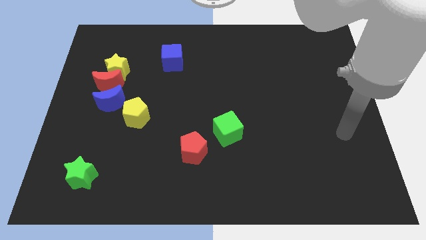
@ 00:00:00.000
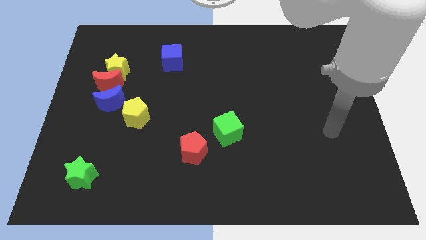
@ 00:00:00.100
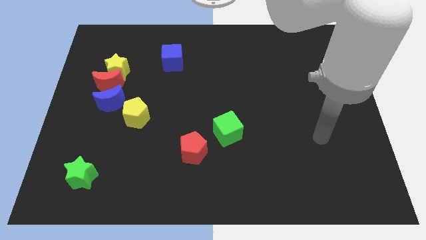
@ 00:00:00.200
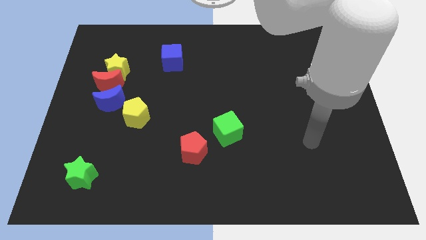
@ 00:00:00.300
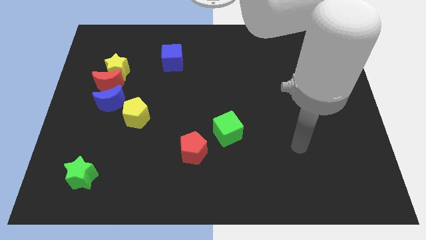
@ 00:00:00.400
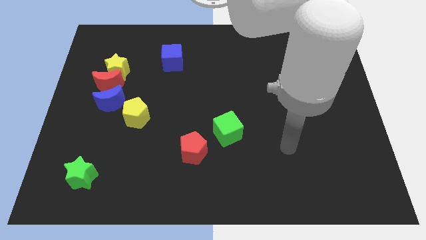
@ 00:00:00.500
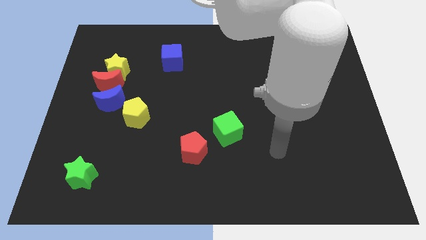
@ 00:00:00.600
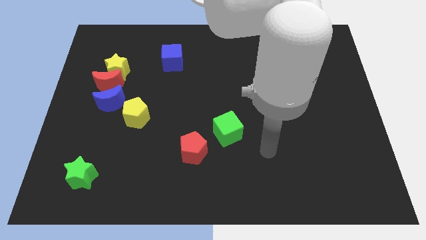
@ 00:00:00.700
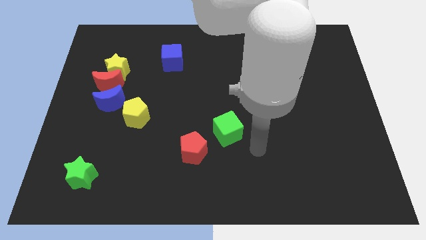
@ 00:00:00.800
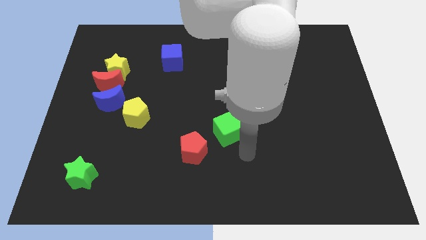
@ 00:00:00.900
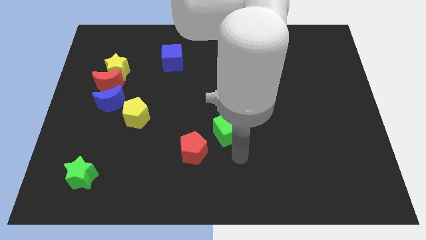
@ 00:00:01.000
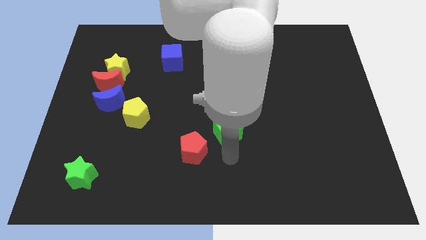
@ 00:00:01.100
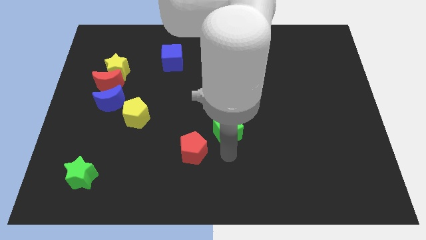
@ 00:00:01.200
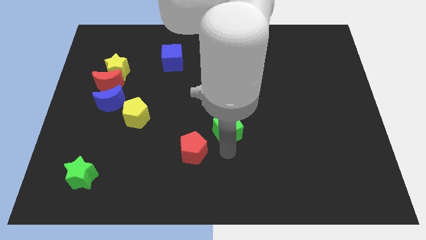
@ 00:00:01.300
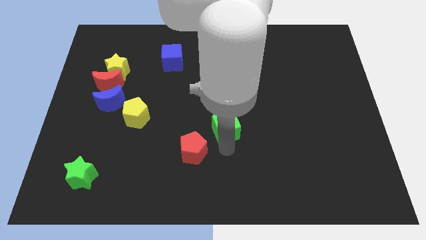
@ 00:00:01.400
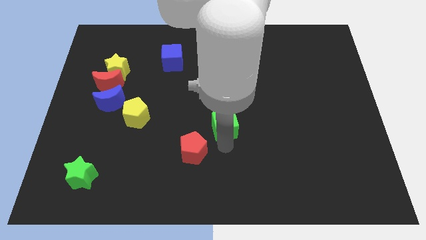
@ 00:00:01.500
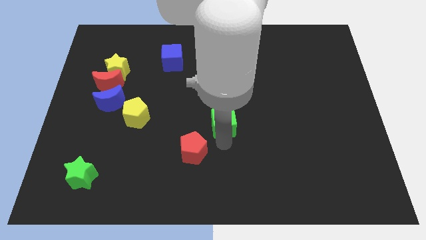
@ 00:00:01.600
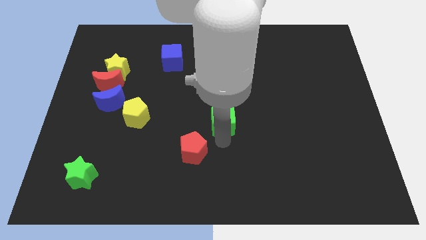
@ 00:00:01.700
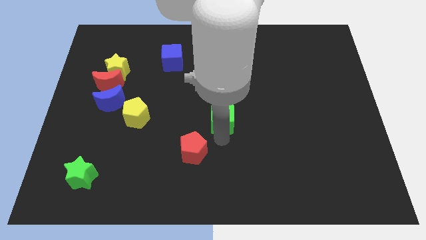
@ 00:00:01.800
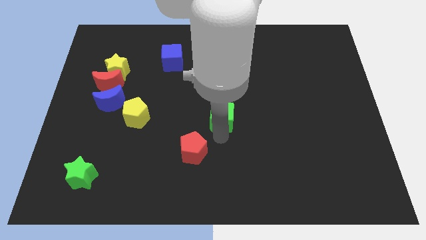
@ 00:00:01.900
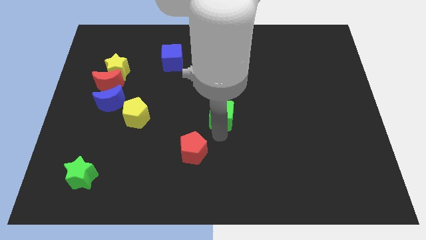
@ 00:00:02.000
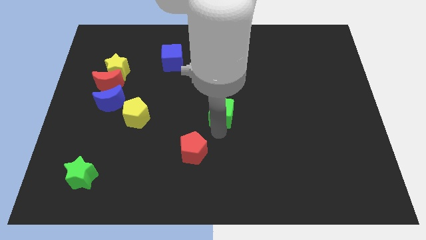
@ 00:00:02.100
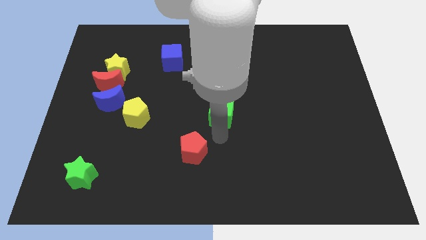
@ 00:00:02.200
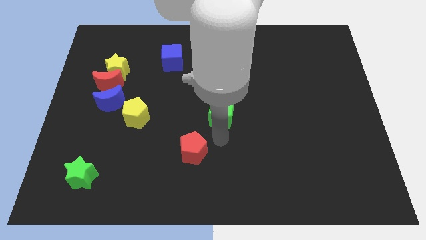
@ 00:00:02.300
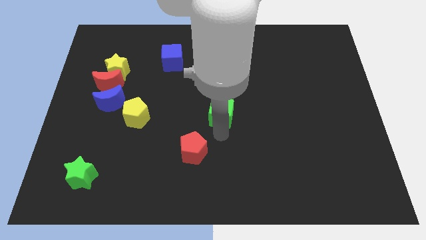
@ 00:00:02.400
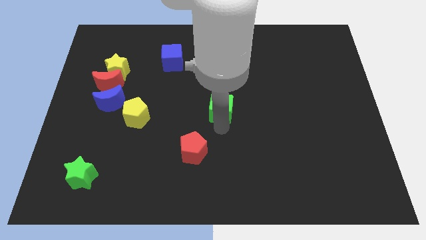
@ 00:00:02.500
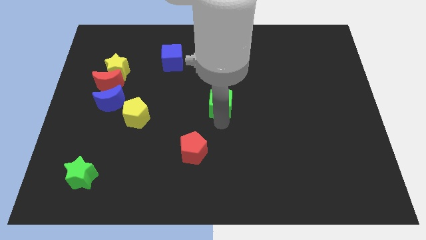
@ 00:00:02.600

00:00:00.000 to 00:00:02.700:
slide the green cube a little bit up

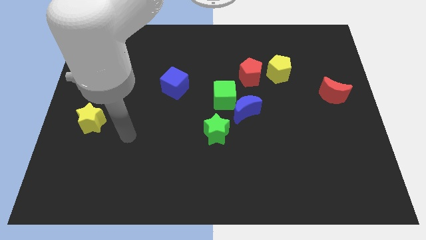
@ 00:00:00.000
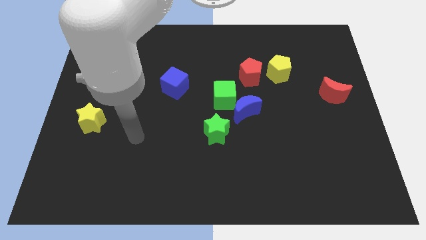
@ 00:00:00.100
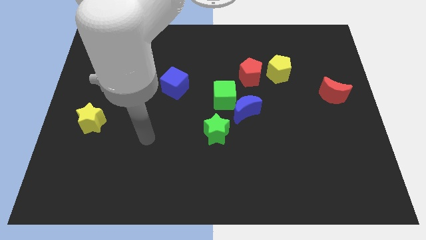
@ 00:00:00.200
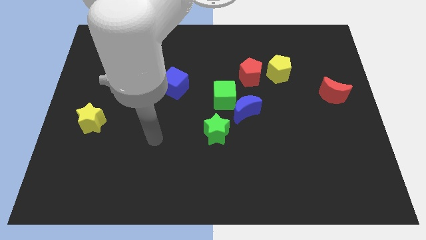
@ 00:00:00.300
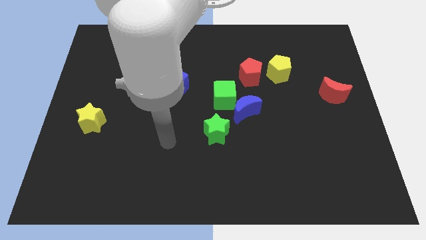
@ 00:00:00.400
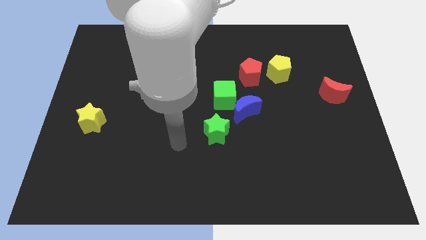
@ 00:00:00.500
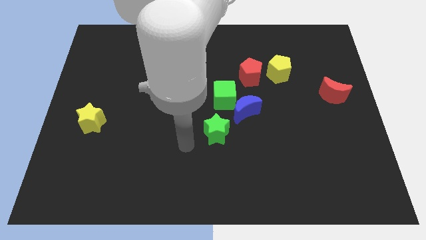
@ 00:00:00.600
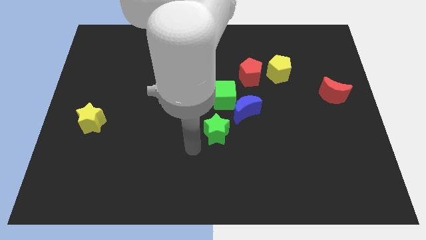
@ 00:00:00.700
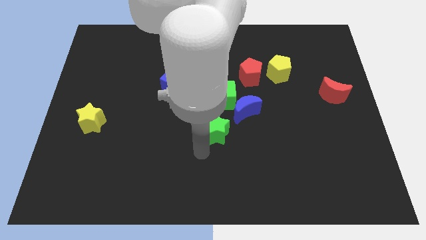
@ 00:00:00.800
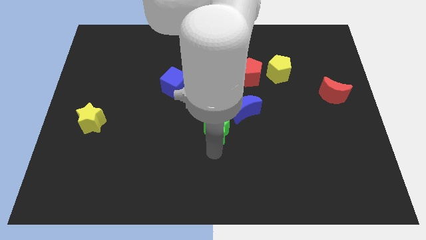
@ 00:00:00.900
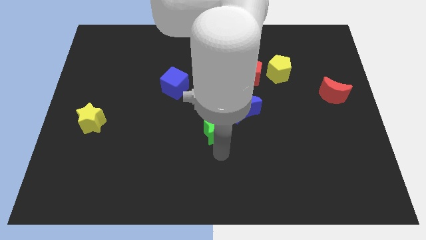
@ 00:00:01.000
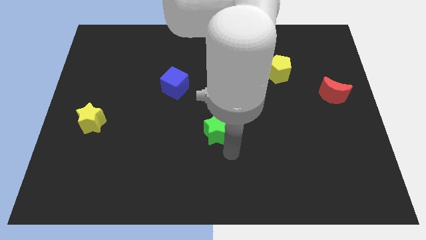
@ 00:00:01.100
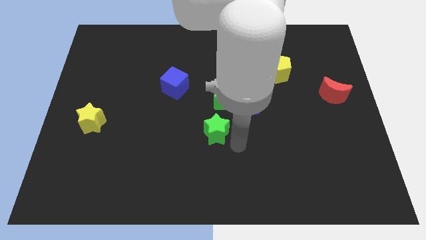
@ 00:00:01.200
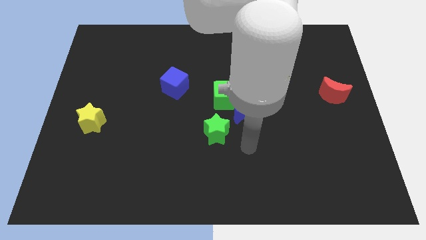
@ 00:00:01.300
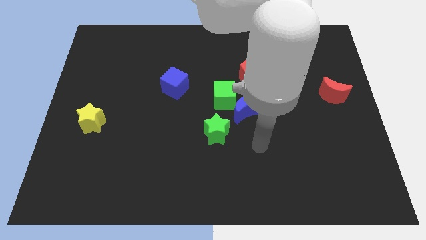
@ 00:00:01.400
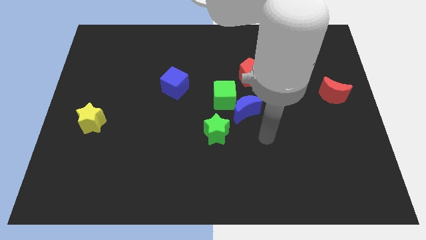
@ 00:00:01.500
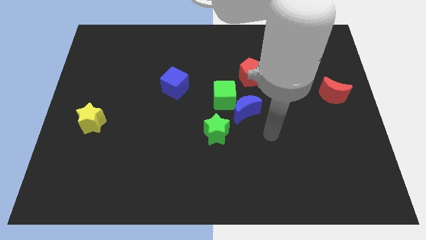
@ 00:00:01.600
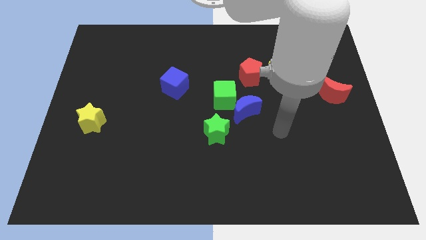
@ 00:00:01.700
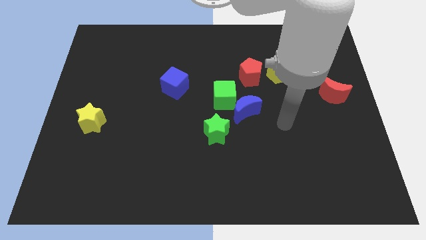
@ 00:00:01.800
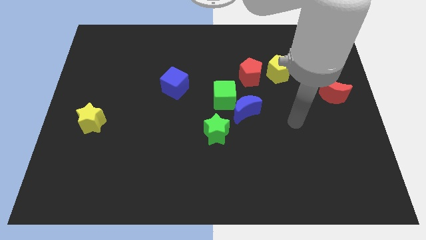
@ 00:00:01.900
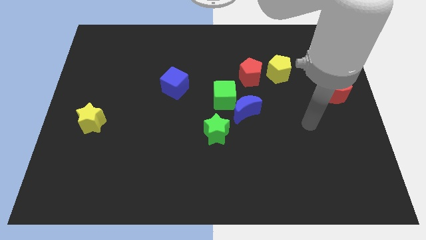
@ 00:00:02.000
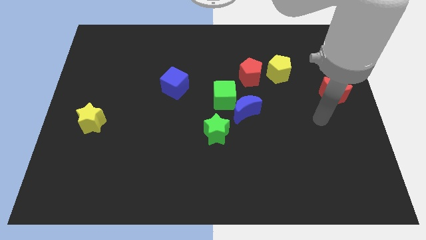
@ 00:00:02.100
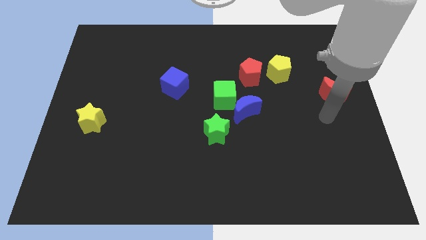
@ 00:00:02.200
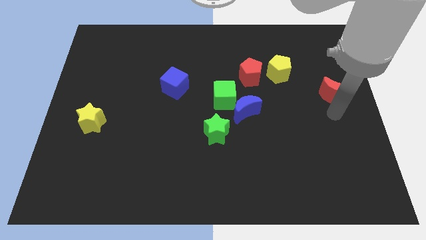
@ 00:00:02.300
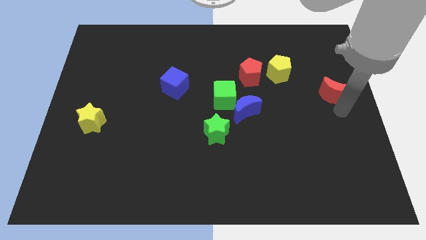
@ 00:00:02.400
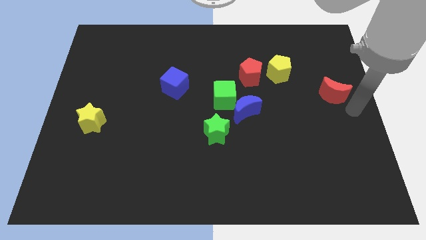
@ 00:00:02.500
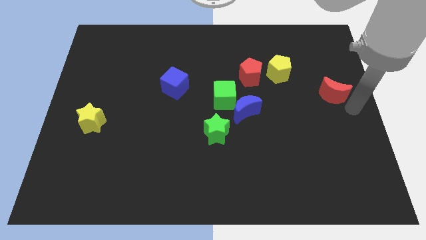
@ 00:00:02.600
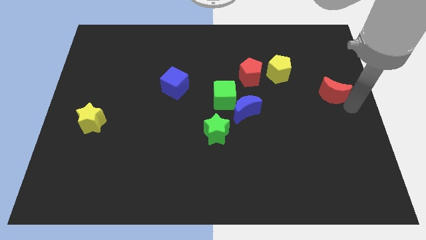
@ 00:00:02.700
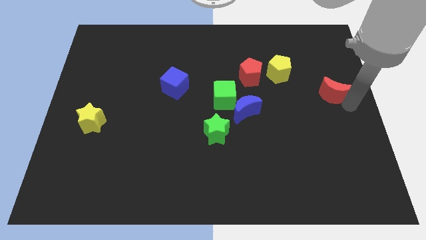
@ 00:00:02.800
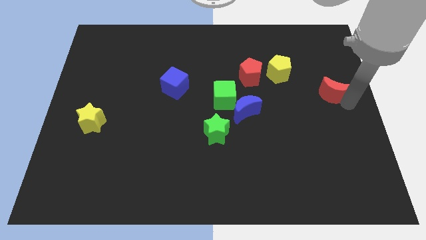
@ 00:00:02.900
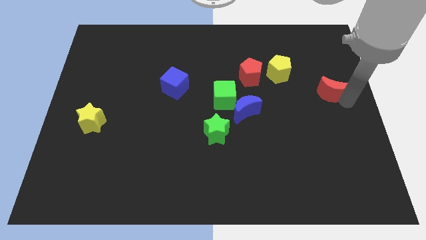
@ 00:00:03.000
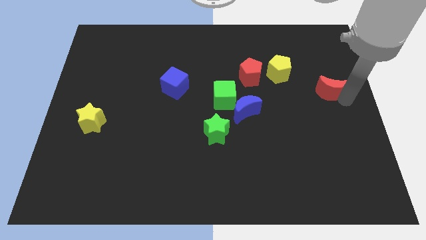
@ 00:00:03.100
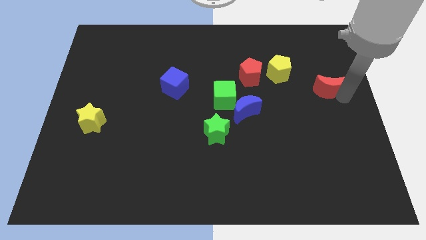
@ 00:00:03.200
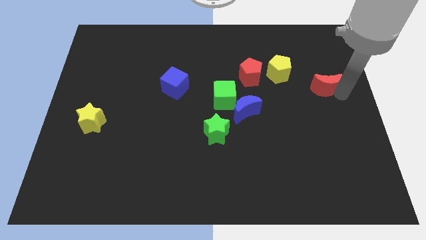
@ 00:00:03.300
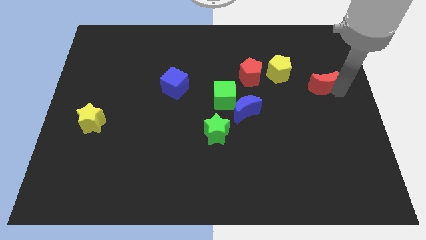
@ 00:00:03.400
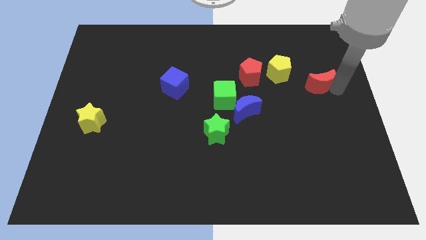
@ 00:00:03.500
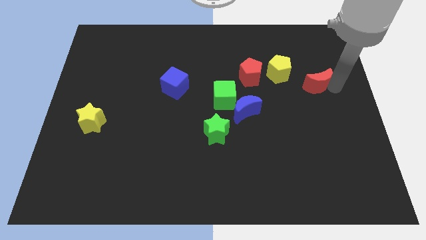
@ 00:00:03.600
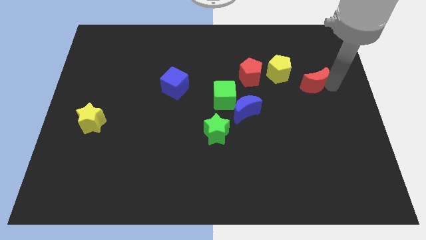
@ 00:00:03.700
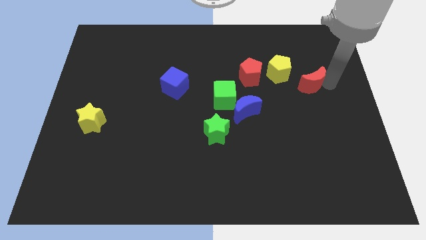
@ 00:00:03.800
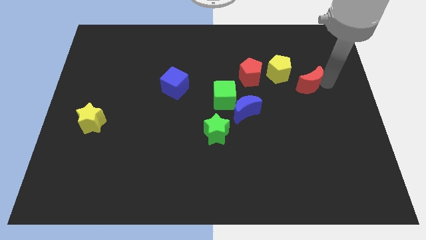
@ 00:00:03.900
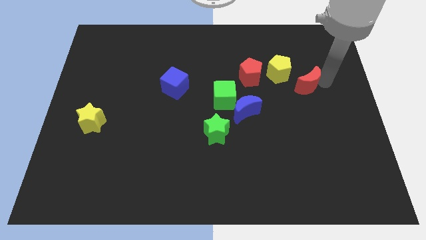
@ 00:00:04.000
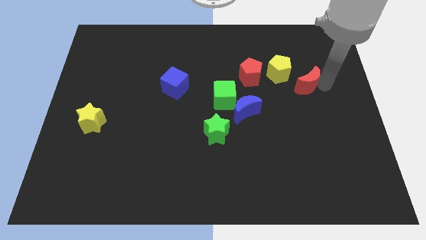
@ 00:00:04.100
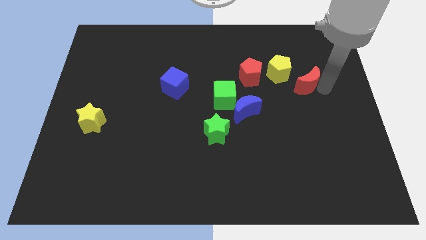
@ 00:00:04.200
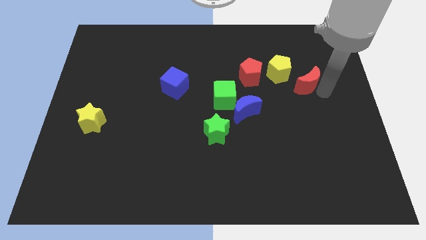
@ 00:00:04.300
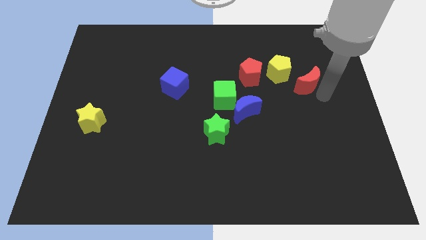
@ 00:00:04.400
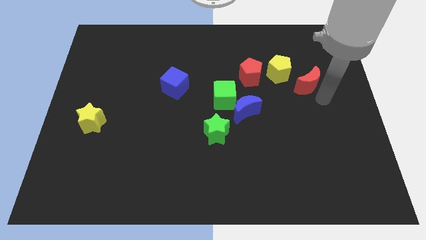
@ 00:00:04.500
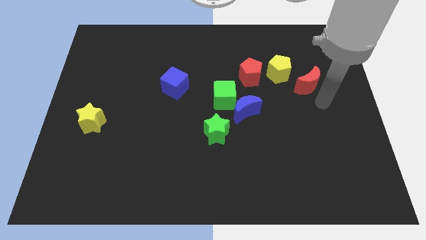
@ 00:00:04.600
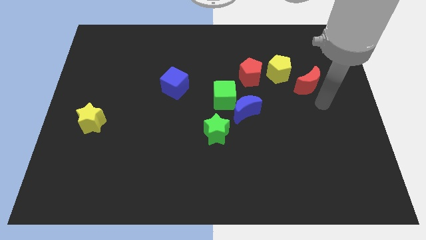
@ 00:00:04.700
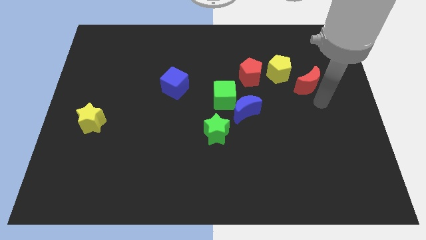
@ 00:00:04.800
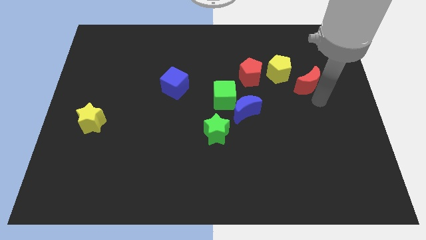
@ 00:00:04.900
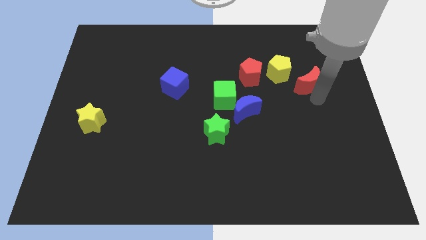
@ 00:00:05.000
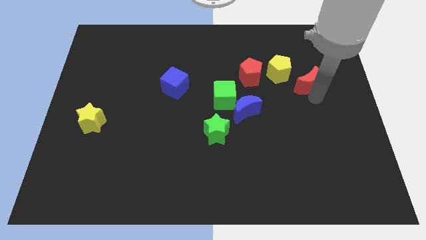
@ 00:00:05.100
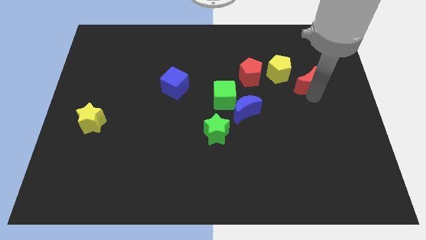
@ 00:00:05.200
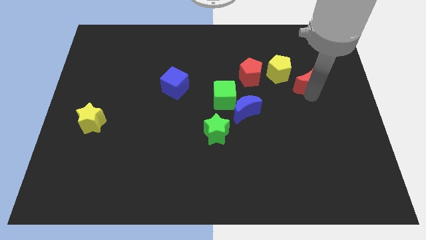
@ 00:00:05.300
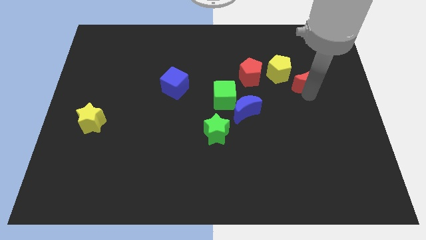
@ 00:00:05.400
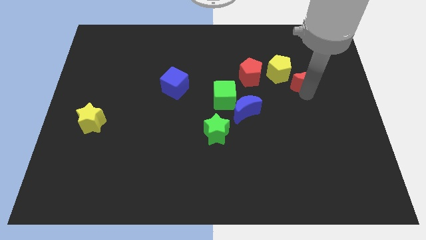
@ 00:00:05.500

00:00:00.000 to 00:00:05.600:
move the red moon diagonally upwards and left somewhat
